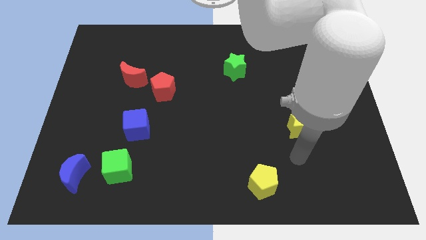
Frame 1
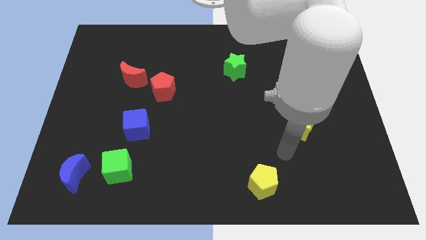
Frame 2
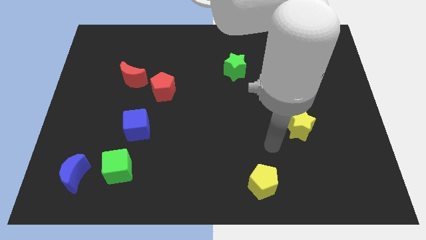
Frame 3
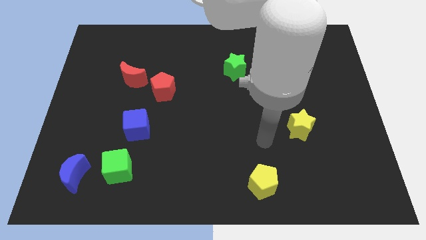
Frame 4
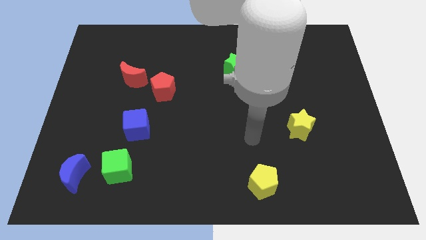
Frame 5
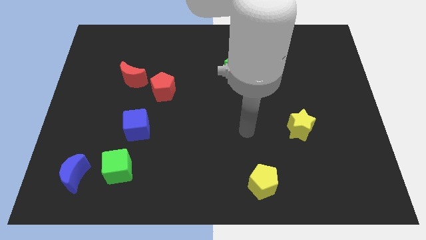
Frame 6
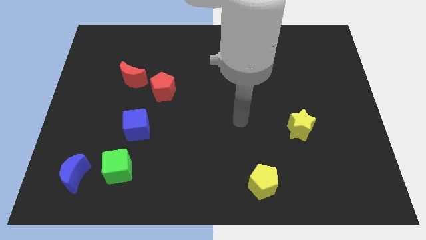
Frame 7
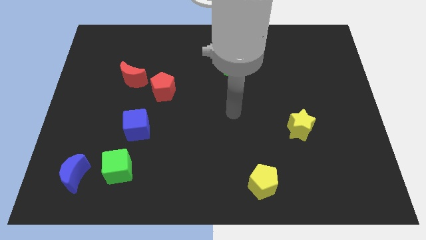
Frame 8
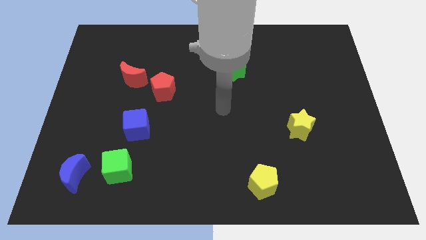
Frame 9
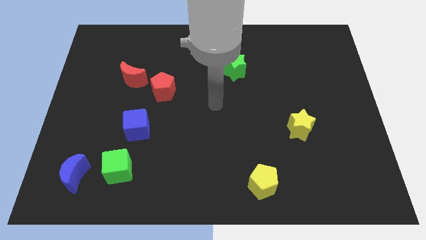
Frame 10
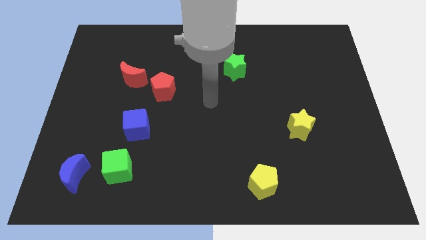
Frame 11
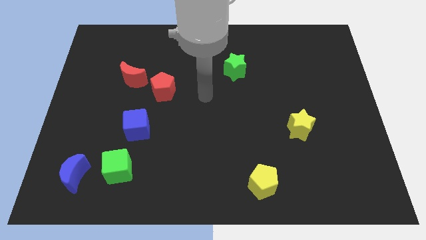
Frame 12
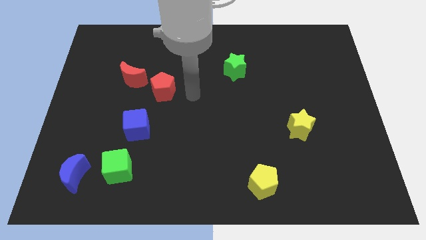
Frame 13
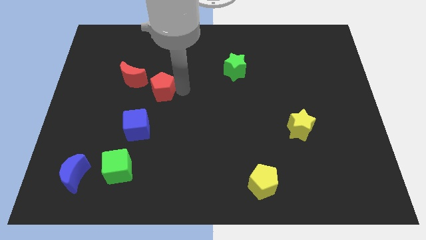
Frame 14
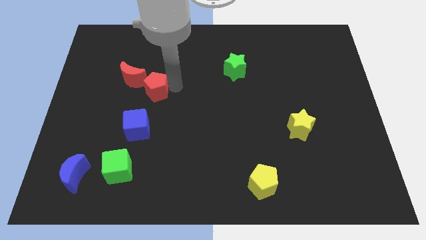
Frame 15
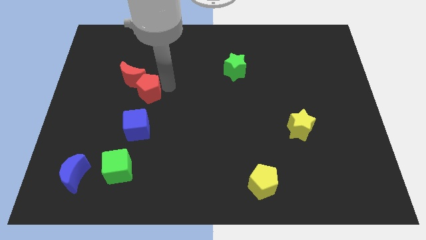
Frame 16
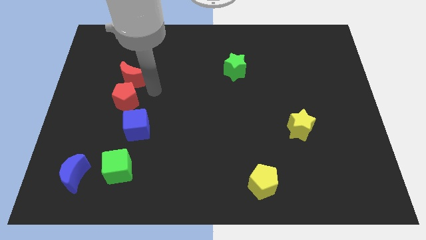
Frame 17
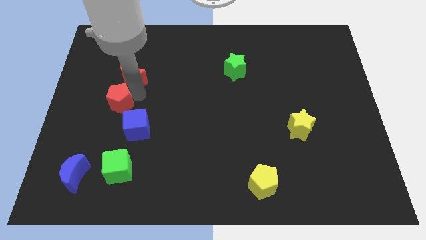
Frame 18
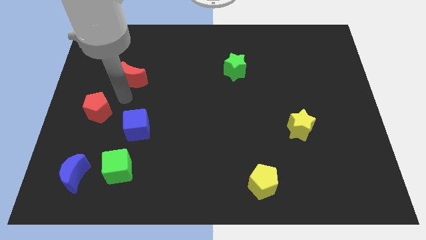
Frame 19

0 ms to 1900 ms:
move the red moon away from the red pentagon

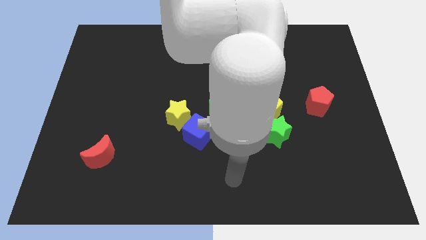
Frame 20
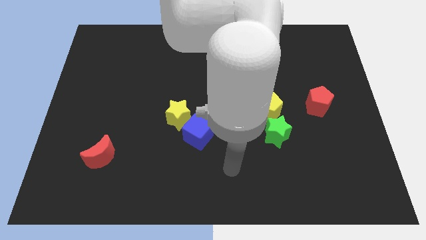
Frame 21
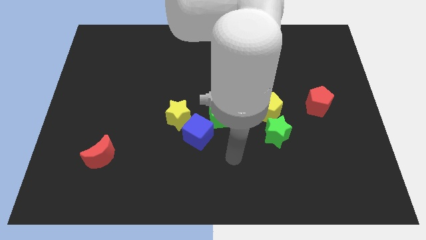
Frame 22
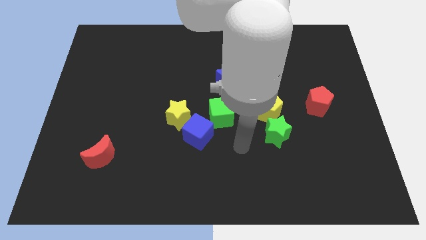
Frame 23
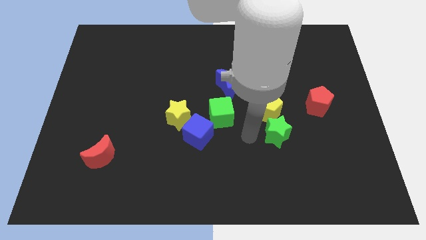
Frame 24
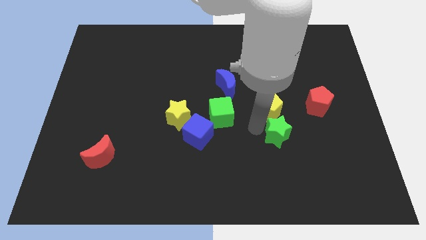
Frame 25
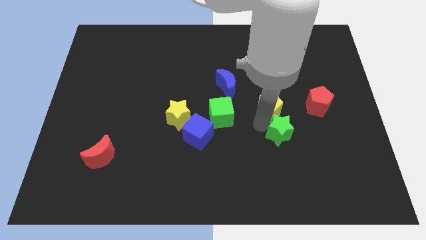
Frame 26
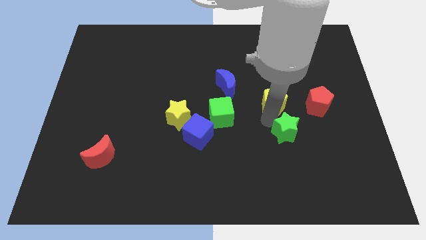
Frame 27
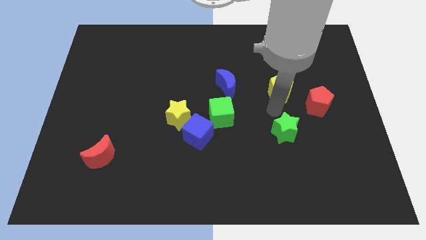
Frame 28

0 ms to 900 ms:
pull the green star apart from the yellow pentagon

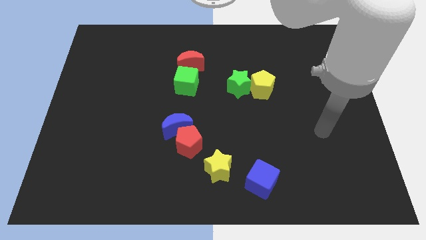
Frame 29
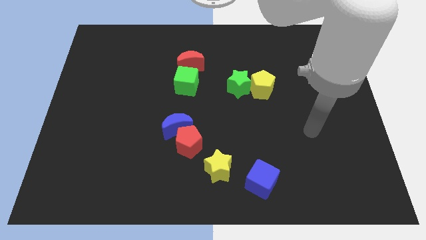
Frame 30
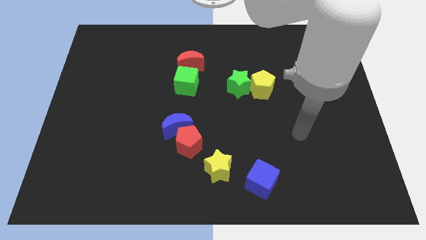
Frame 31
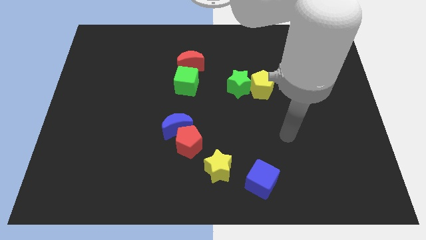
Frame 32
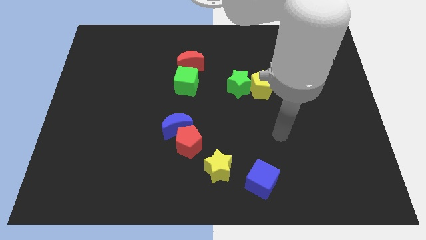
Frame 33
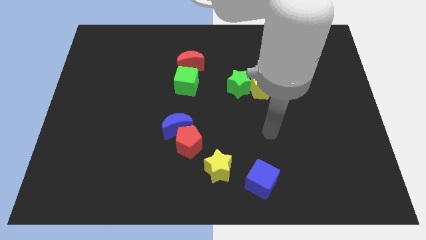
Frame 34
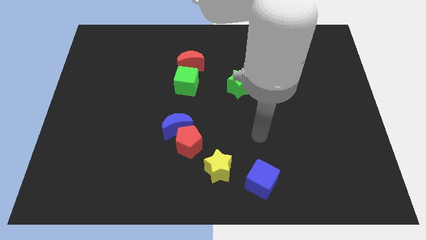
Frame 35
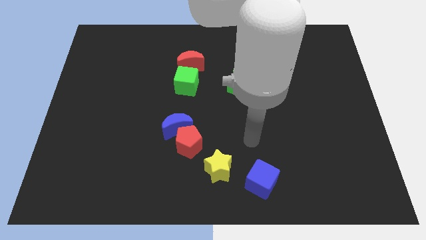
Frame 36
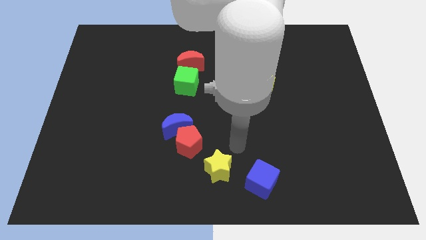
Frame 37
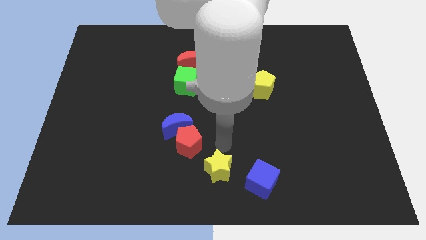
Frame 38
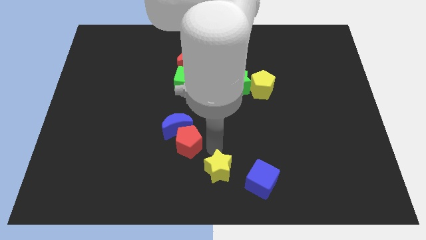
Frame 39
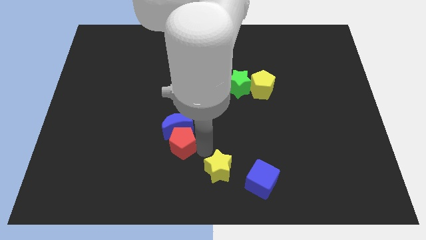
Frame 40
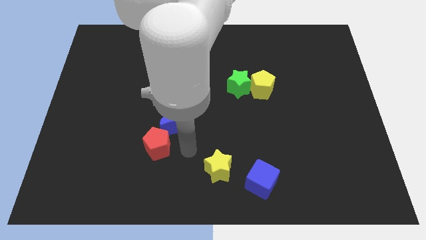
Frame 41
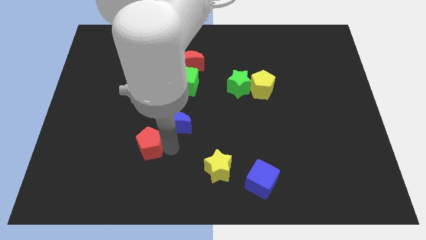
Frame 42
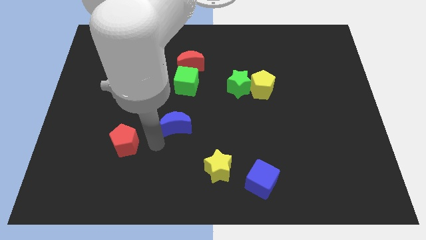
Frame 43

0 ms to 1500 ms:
pull the blue moon apart from the red pentagon

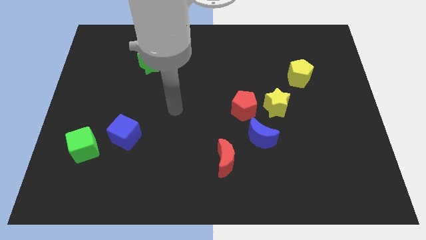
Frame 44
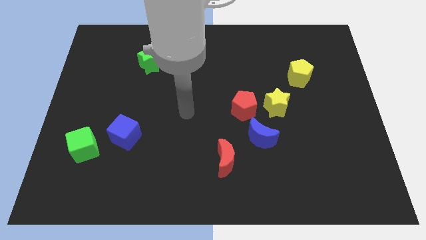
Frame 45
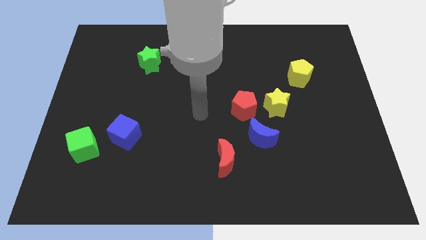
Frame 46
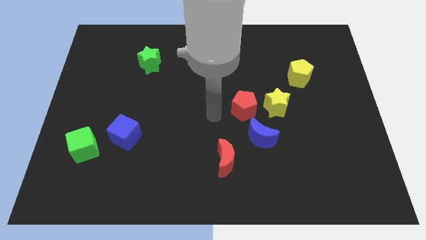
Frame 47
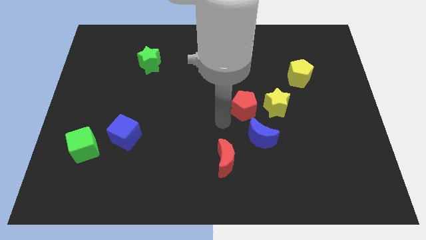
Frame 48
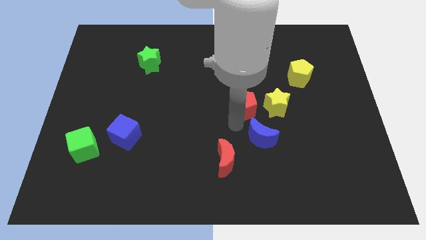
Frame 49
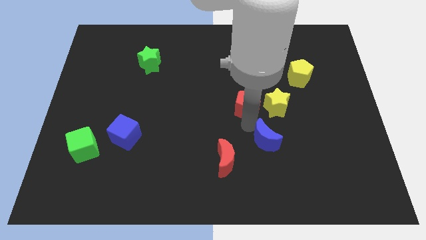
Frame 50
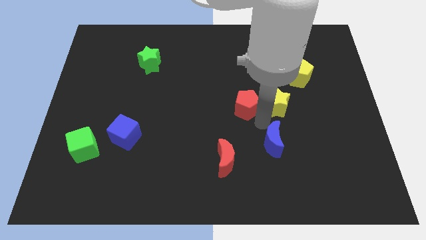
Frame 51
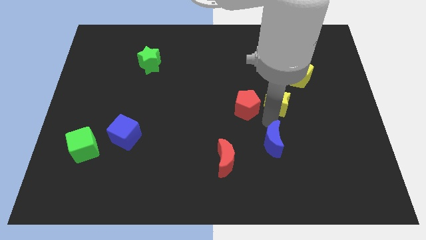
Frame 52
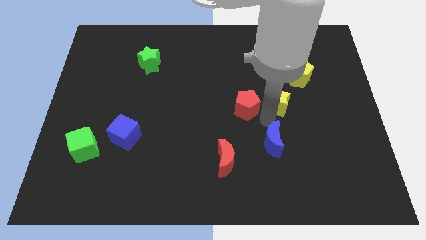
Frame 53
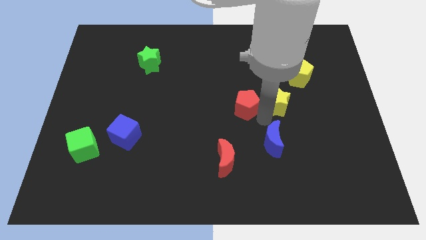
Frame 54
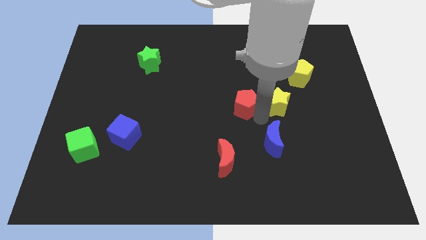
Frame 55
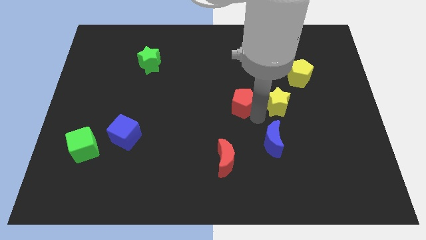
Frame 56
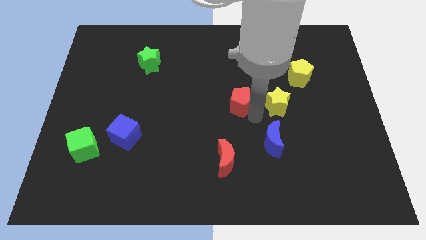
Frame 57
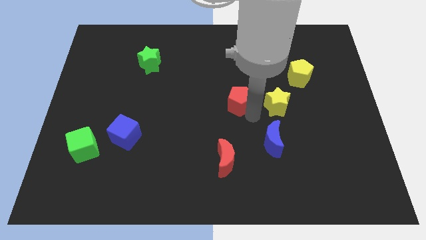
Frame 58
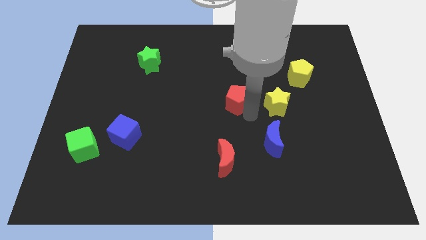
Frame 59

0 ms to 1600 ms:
move the red pentagon away from the yellow star and blue moon

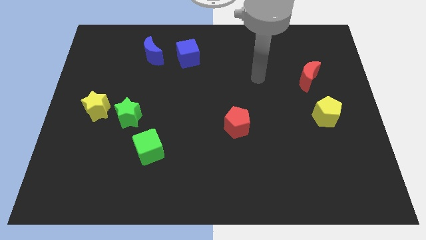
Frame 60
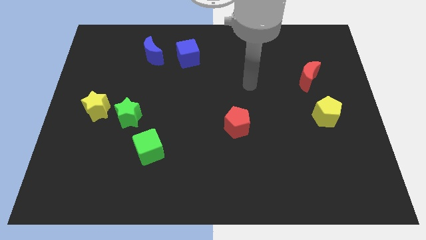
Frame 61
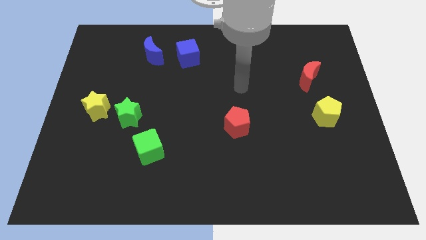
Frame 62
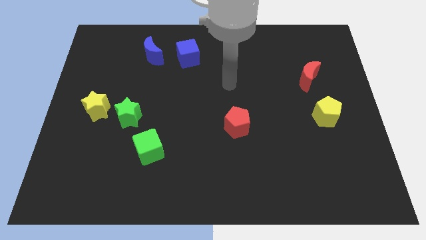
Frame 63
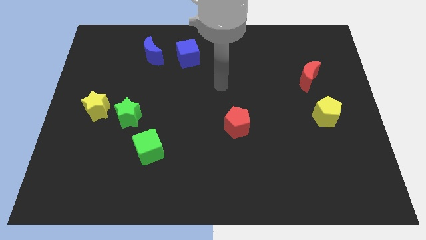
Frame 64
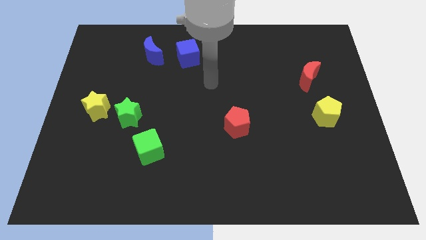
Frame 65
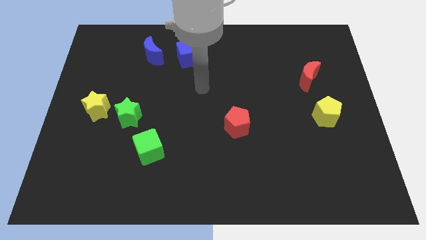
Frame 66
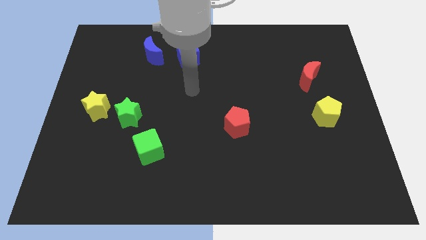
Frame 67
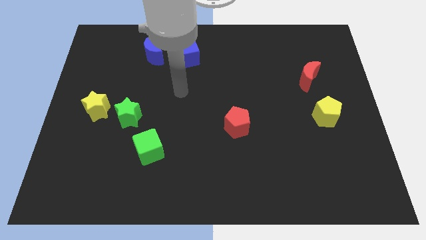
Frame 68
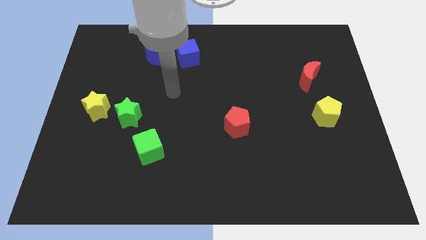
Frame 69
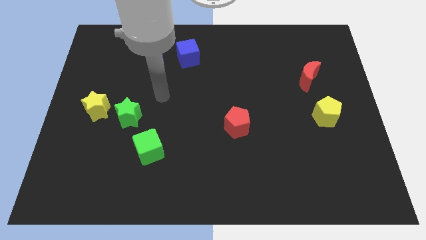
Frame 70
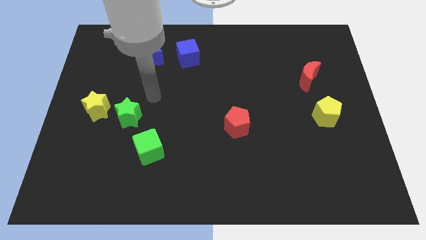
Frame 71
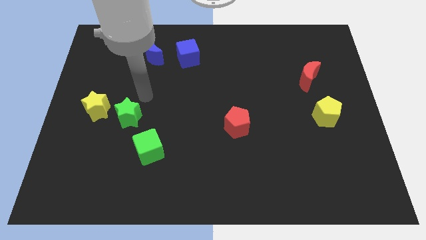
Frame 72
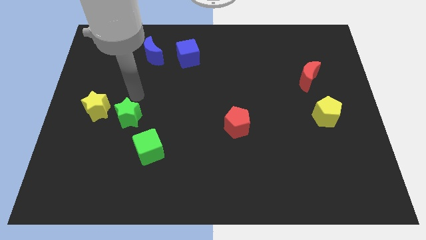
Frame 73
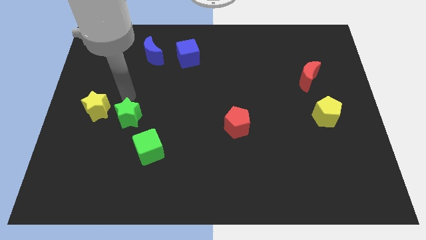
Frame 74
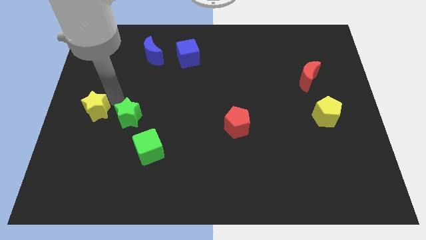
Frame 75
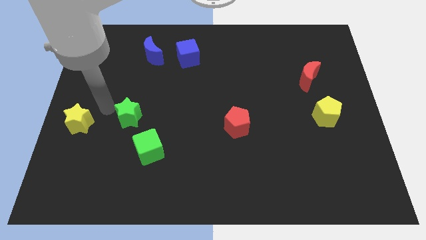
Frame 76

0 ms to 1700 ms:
pull the green star apart from the yellow star

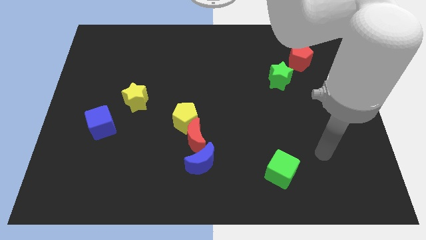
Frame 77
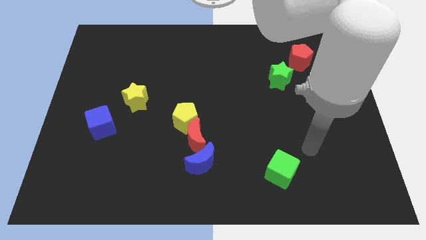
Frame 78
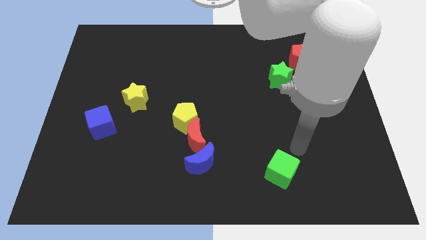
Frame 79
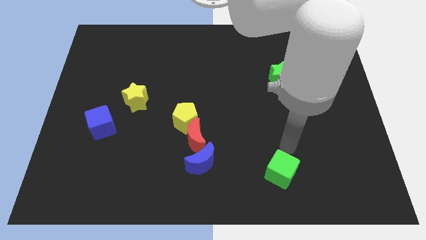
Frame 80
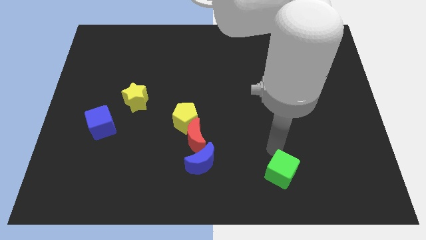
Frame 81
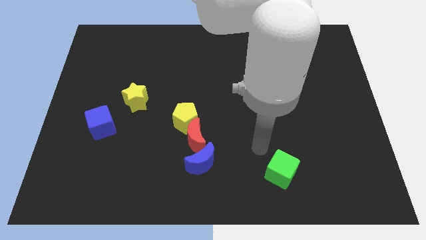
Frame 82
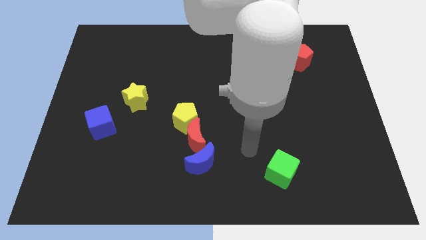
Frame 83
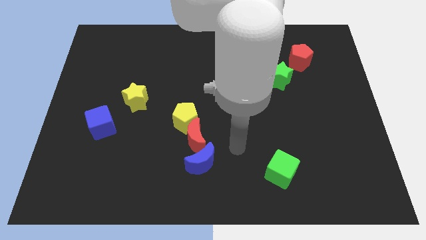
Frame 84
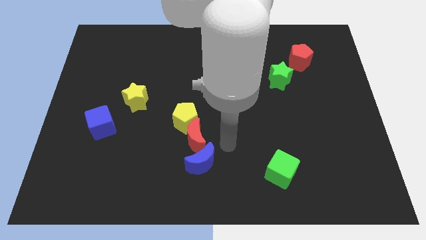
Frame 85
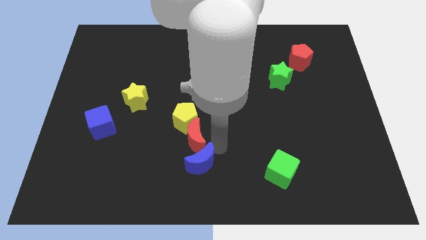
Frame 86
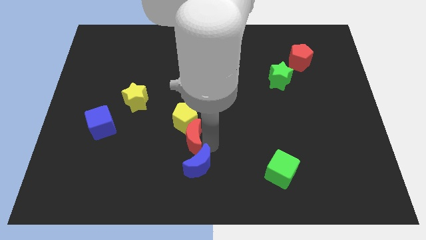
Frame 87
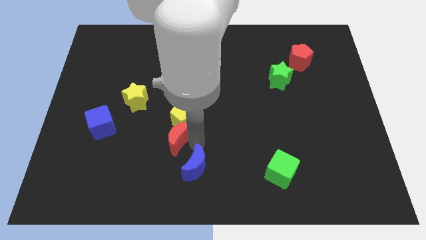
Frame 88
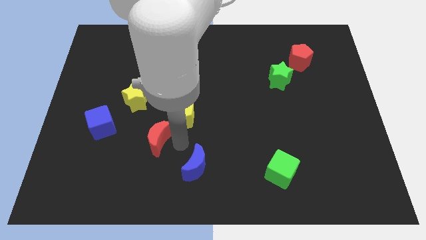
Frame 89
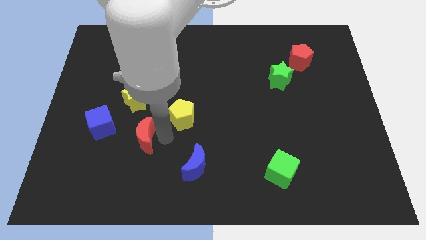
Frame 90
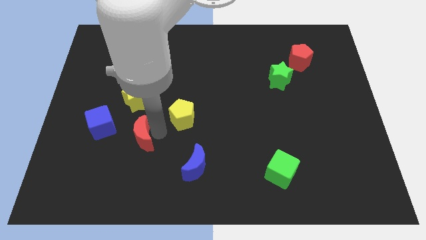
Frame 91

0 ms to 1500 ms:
move the yellow pentagon away from the red moon

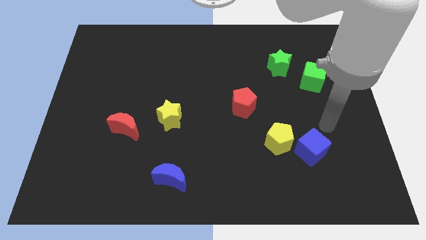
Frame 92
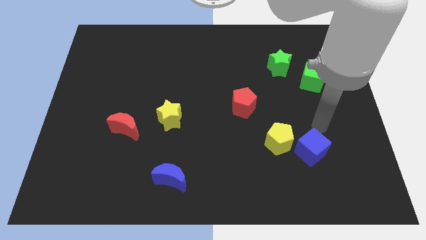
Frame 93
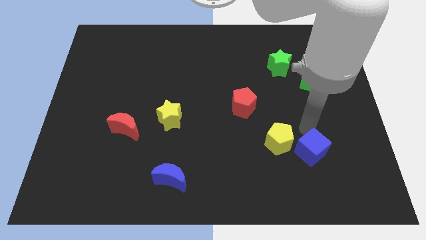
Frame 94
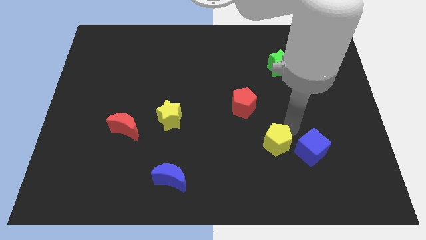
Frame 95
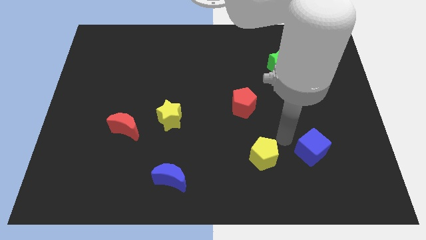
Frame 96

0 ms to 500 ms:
separate the blue cube from the yellow pentagon
